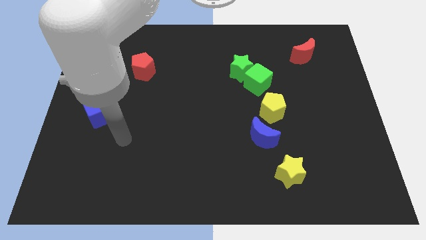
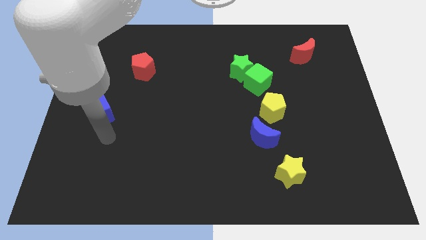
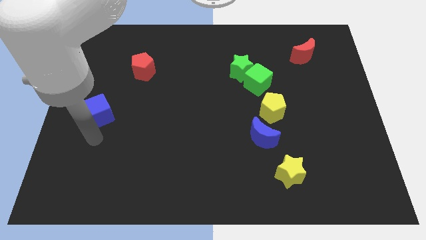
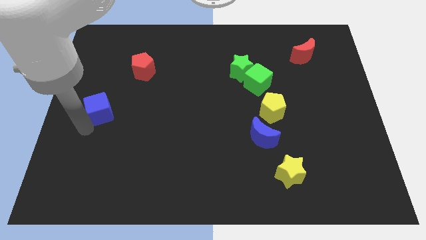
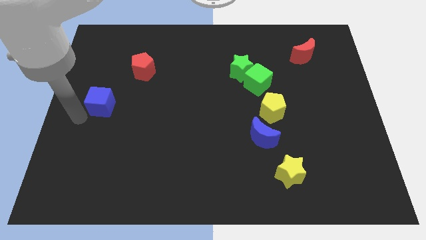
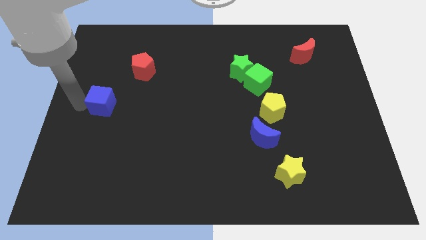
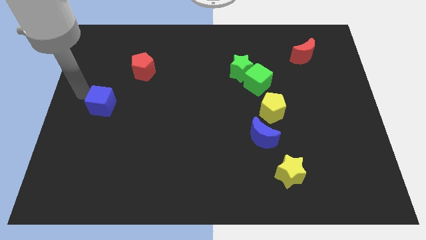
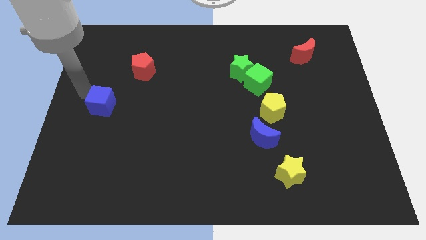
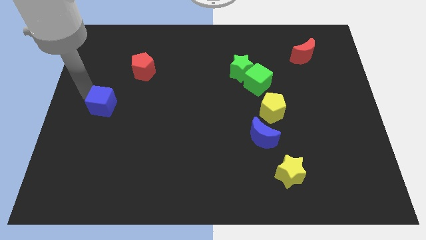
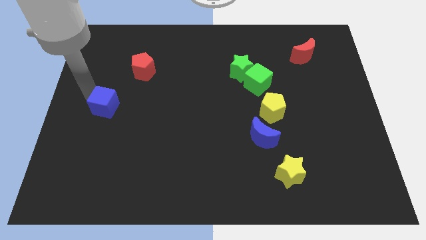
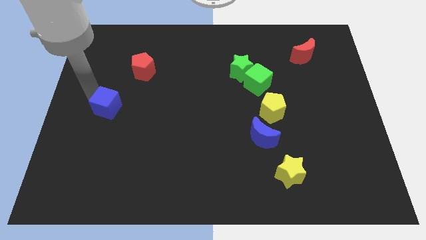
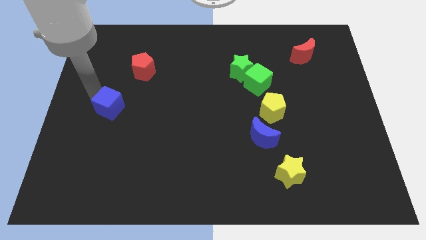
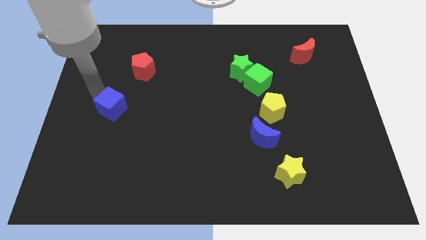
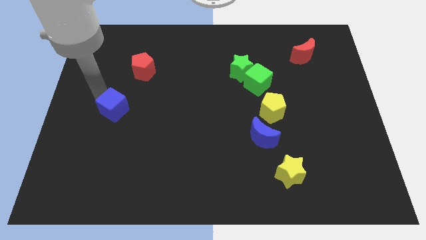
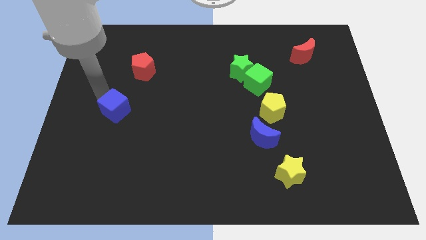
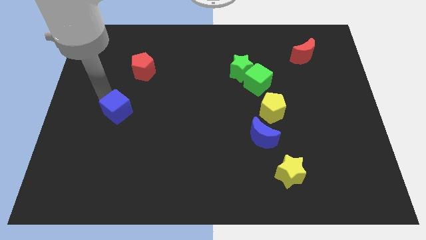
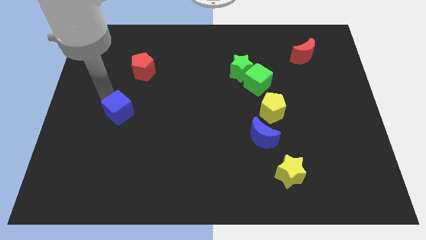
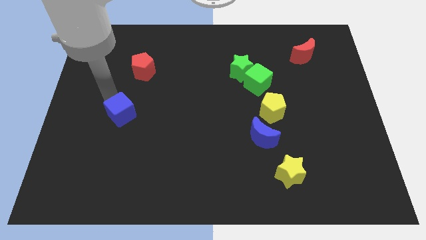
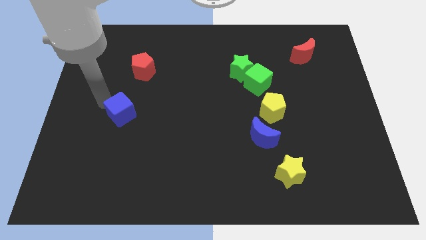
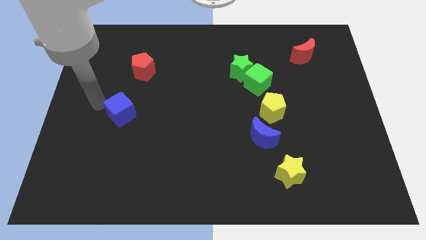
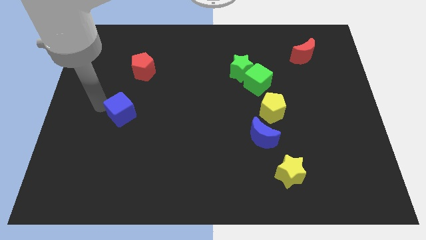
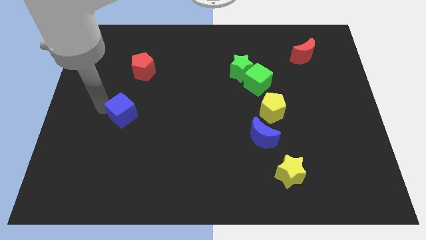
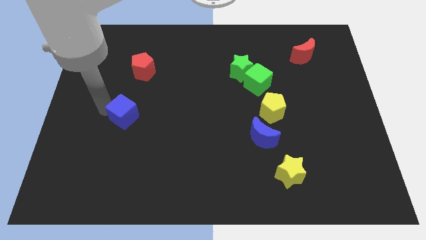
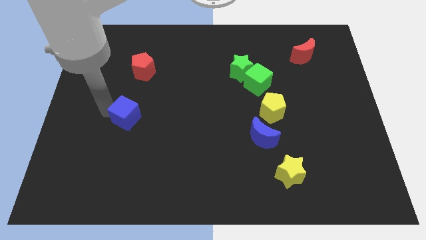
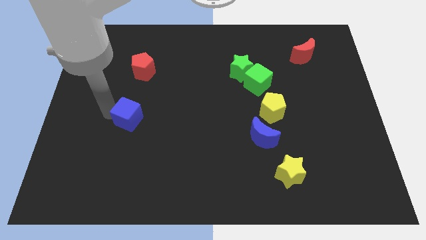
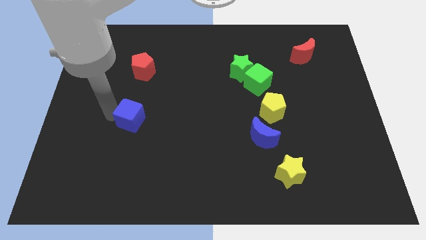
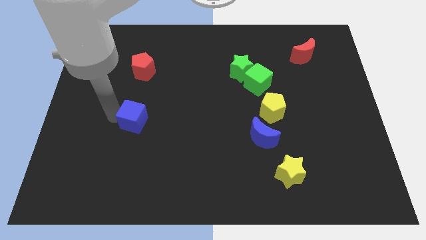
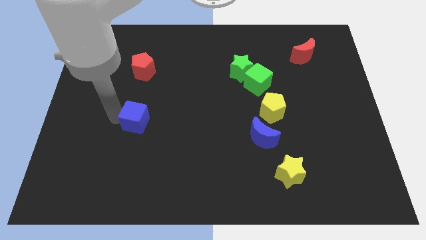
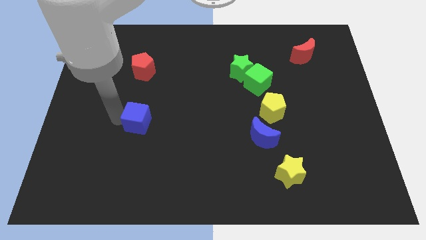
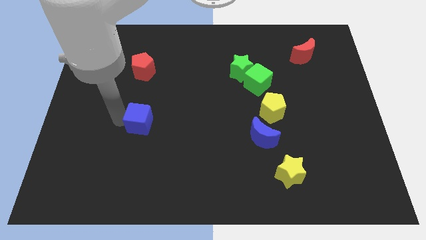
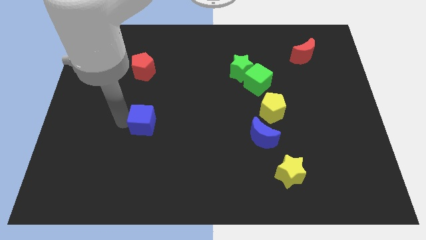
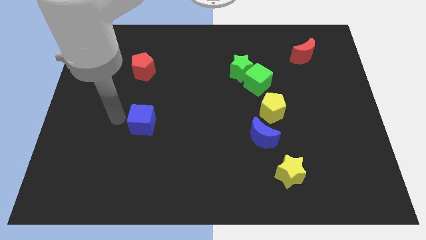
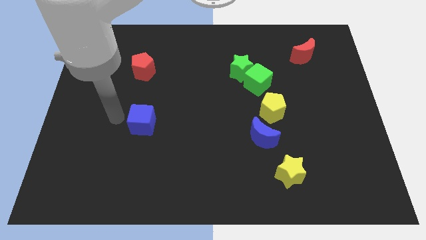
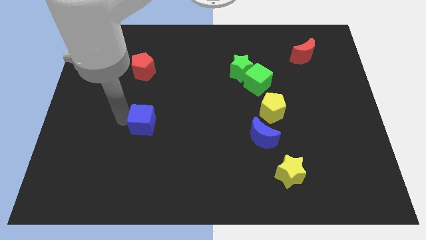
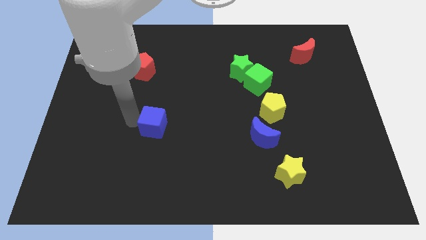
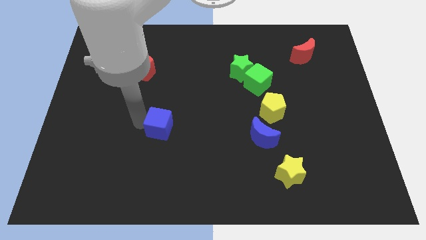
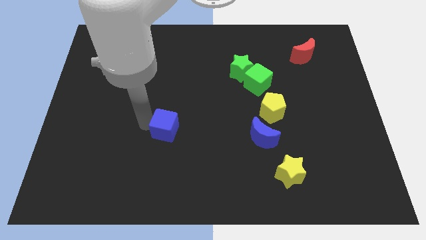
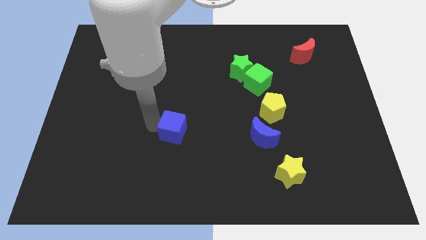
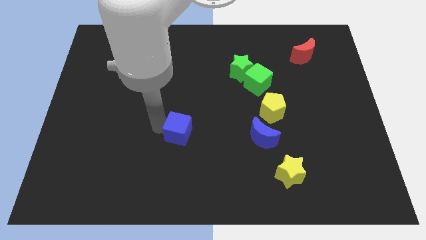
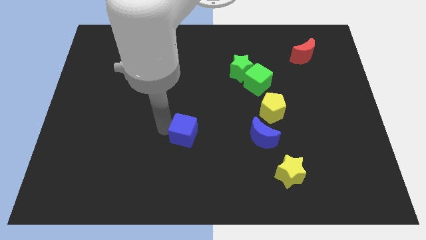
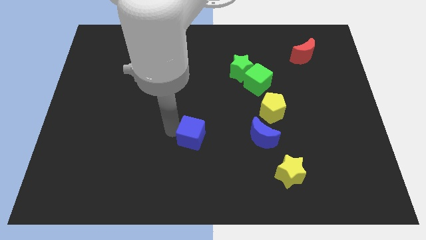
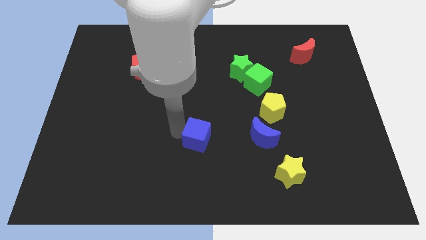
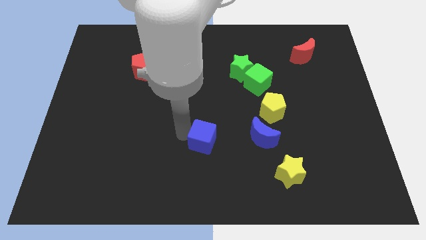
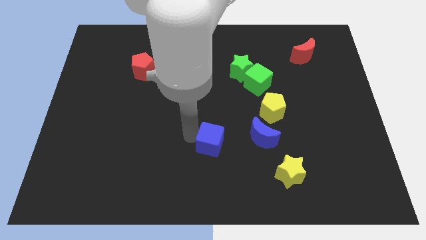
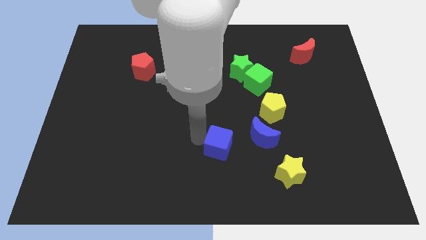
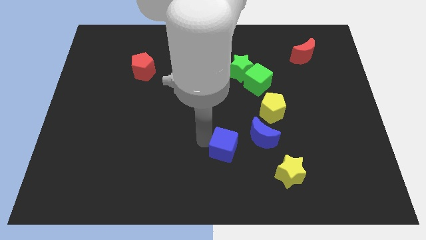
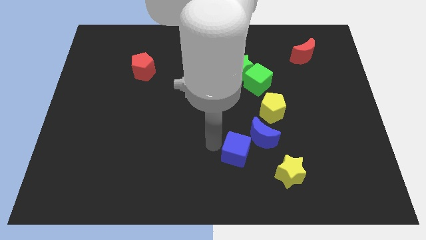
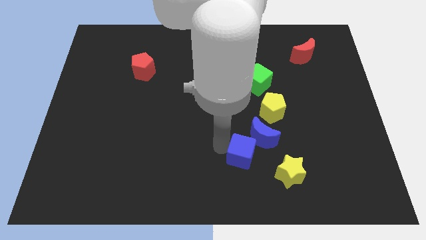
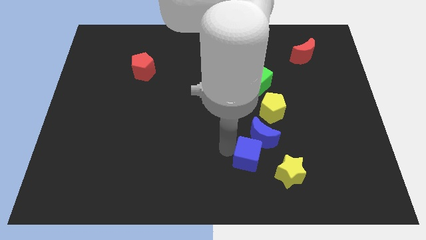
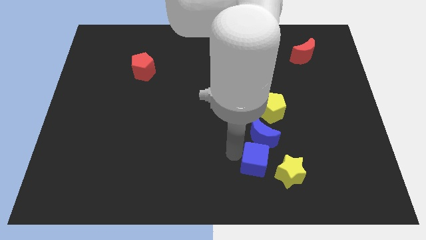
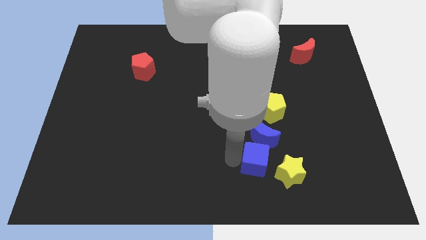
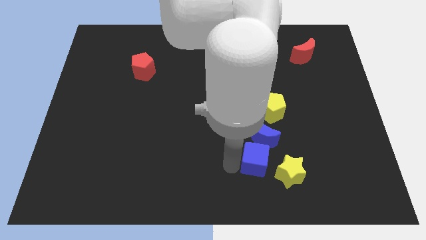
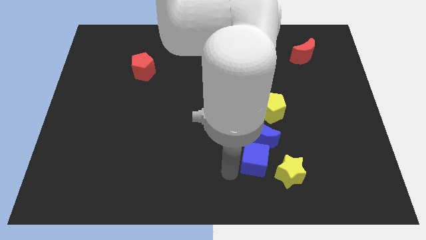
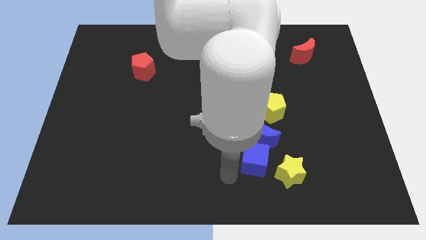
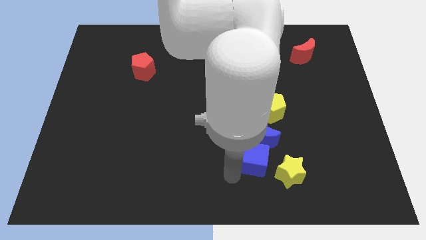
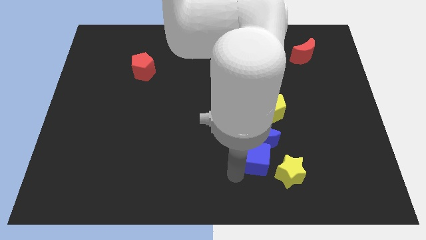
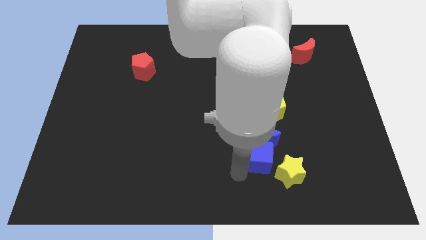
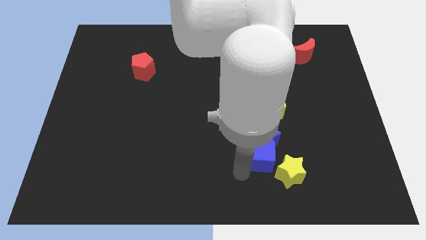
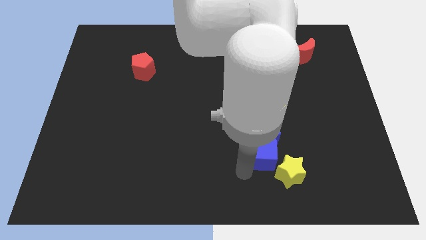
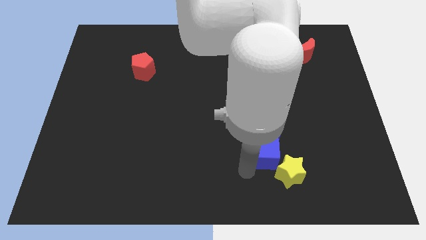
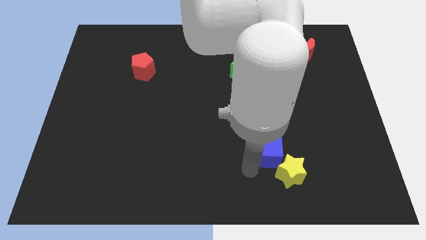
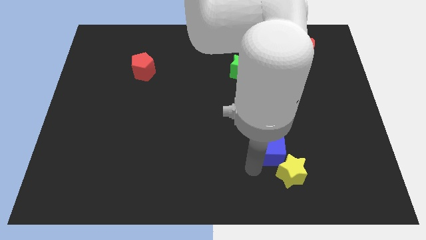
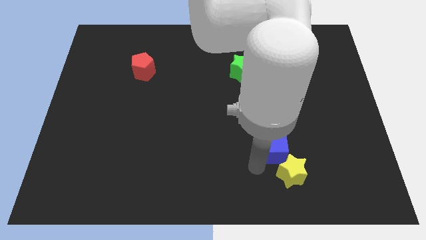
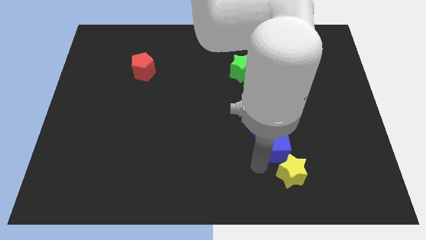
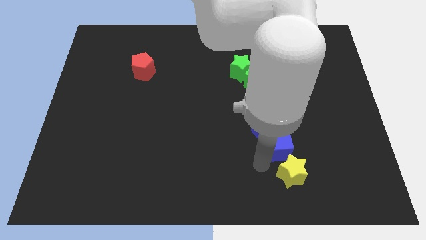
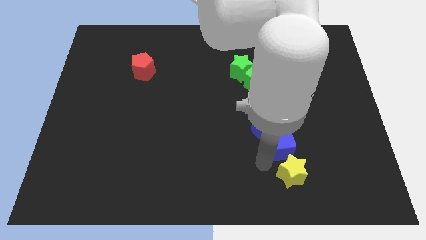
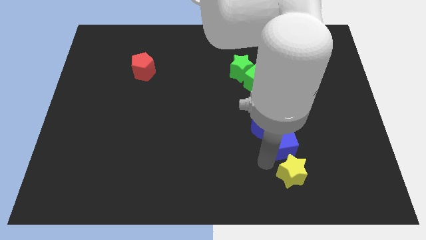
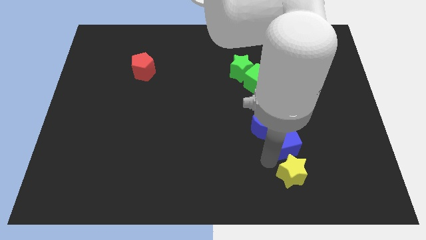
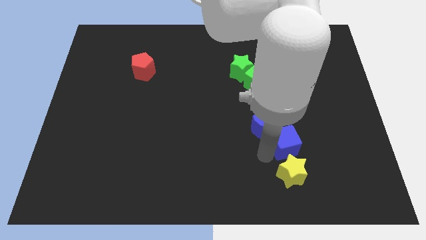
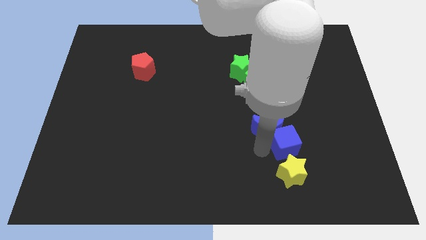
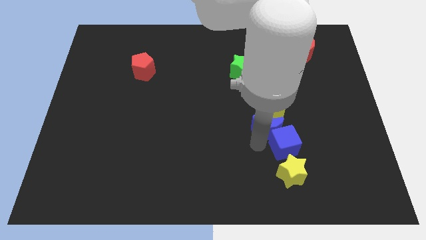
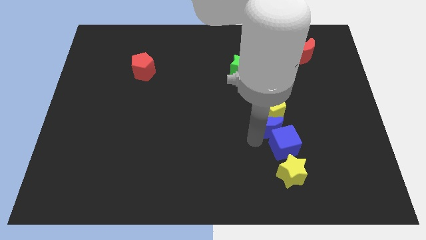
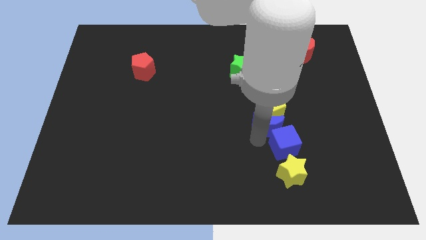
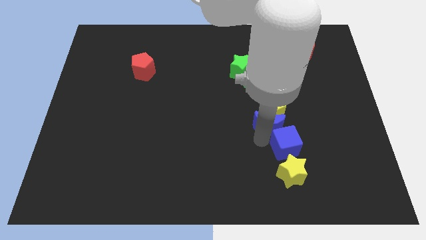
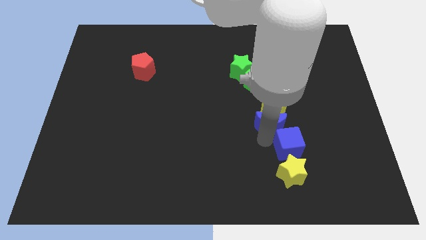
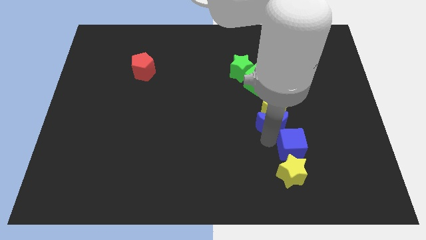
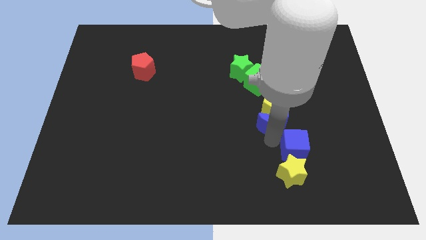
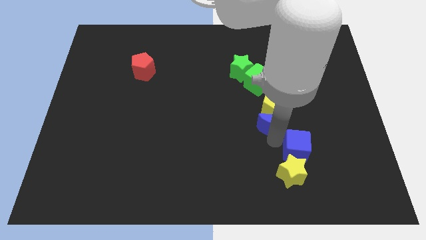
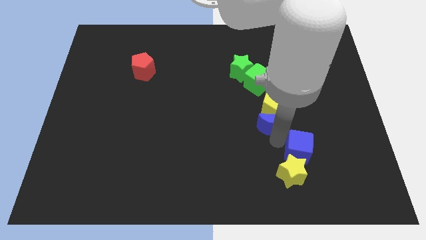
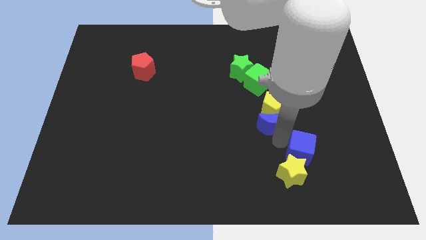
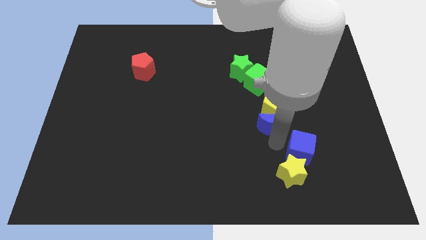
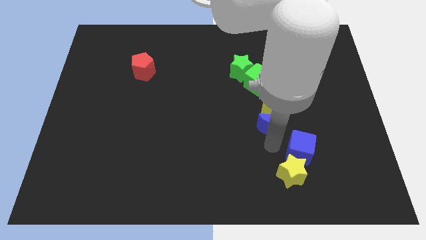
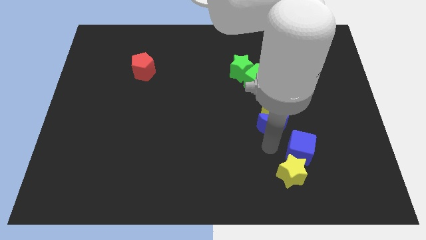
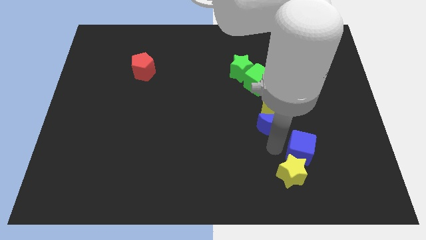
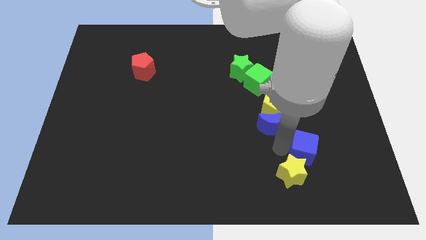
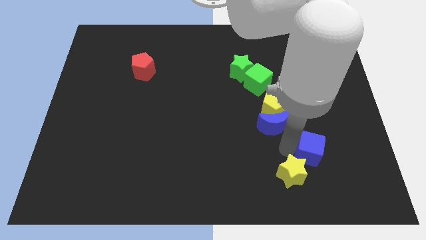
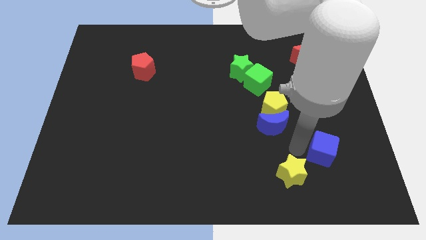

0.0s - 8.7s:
move the blue cube right of the yellow star
